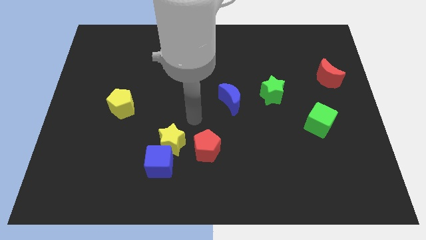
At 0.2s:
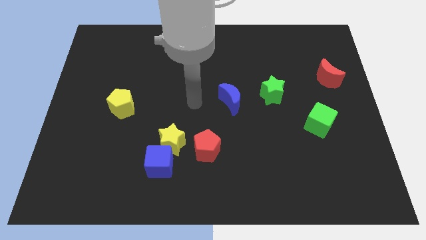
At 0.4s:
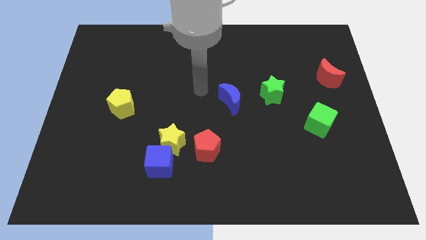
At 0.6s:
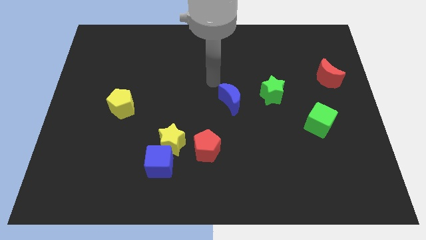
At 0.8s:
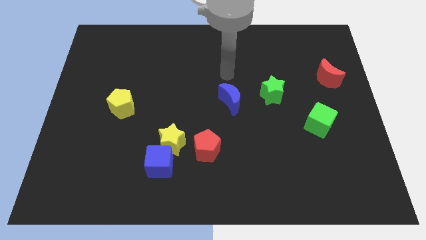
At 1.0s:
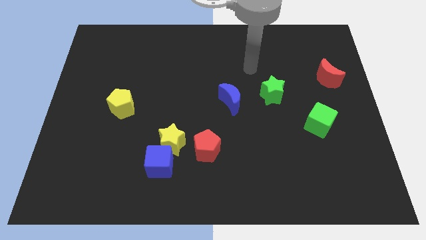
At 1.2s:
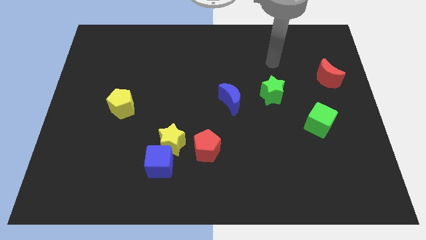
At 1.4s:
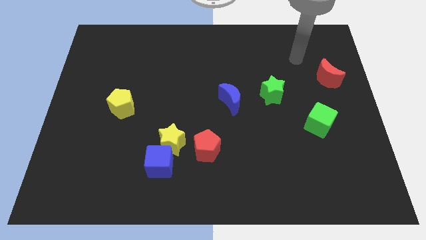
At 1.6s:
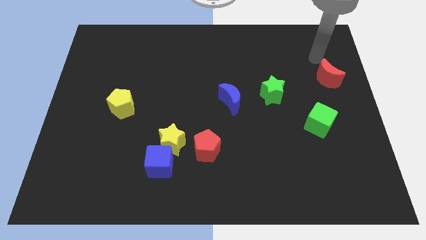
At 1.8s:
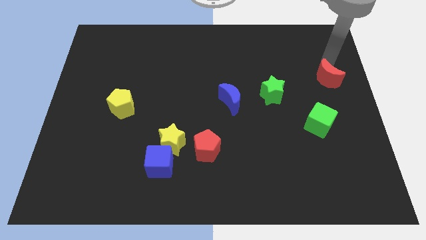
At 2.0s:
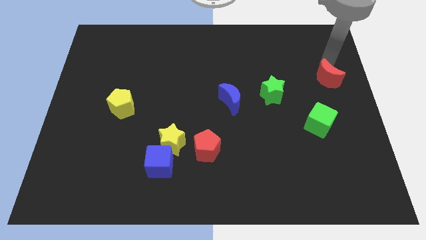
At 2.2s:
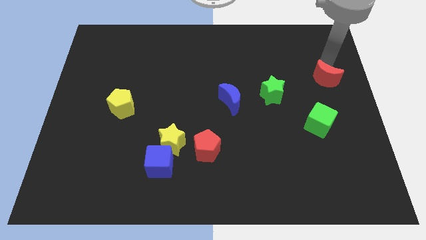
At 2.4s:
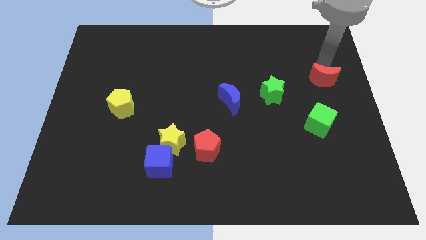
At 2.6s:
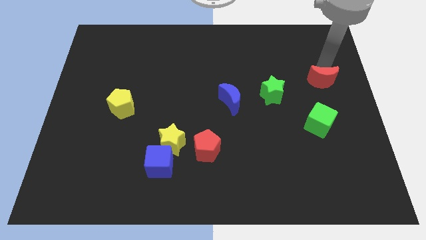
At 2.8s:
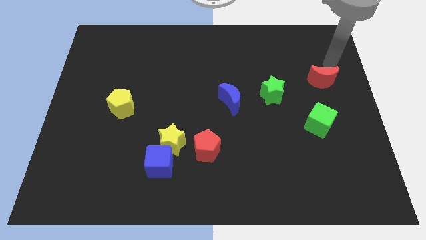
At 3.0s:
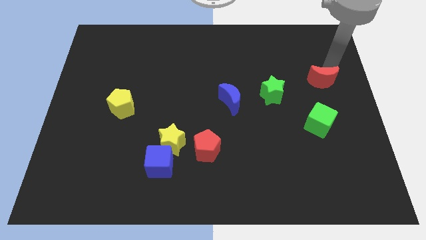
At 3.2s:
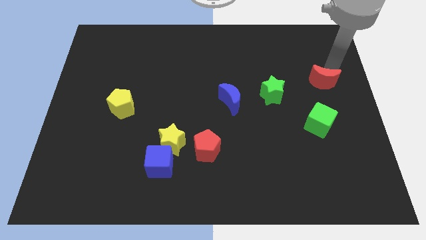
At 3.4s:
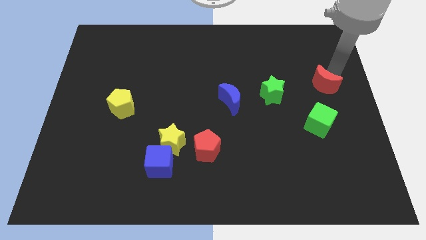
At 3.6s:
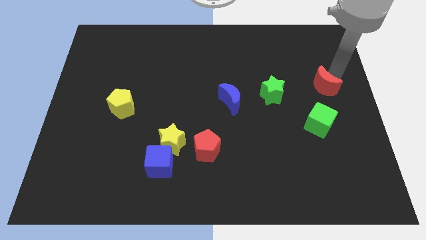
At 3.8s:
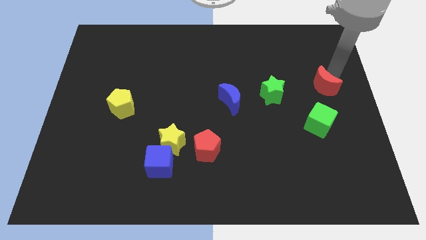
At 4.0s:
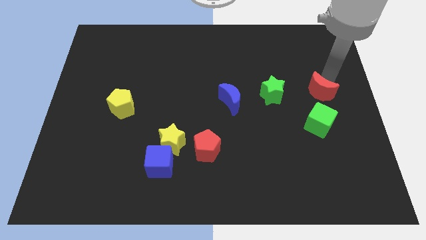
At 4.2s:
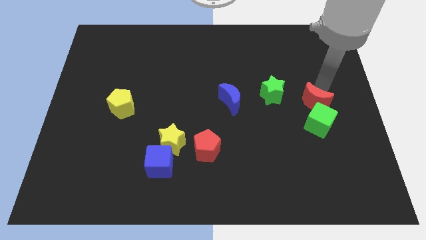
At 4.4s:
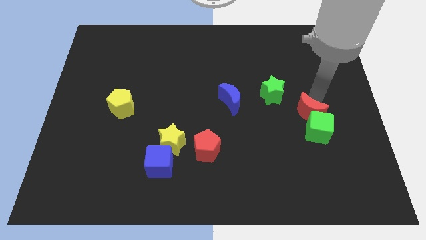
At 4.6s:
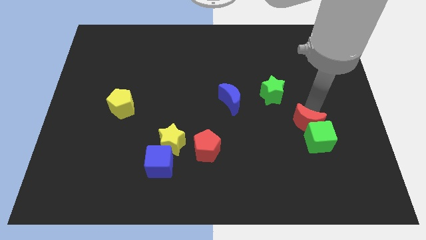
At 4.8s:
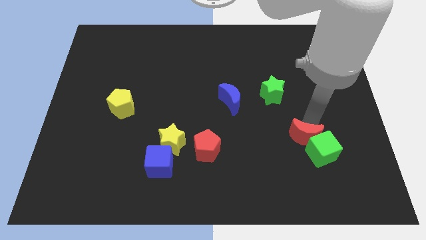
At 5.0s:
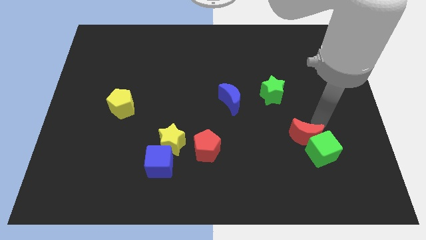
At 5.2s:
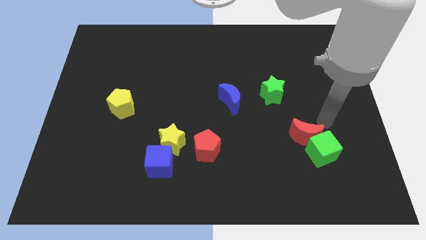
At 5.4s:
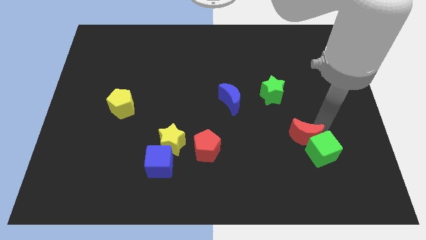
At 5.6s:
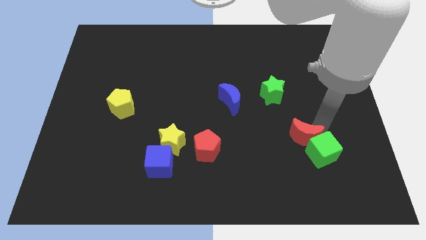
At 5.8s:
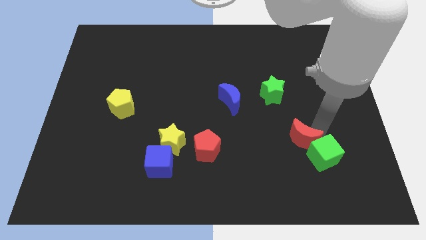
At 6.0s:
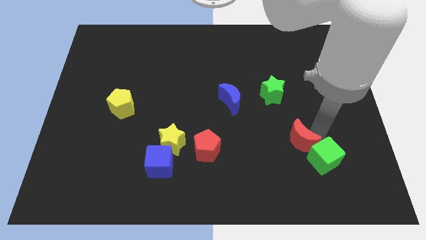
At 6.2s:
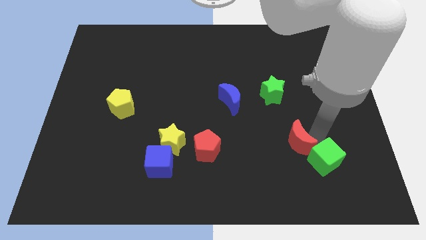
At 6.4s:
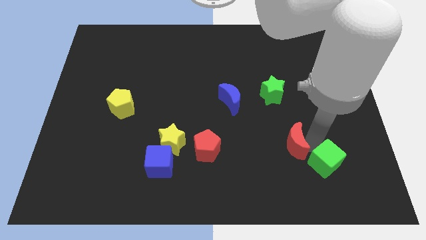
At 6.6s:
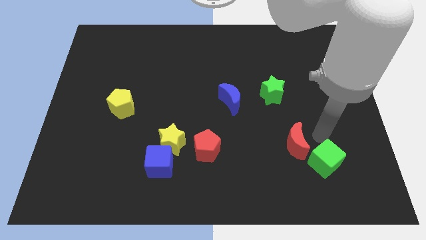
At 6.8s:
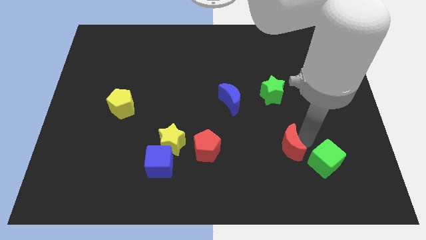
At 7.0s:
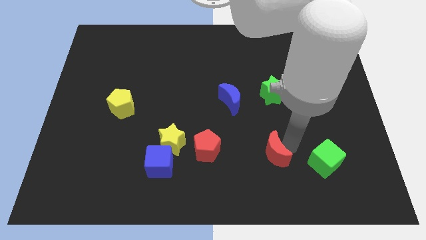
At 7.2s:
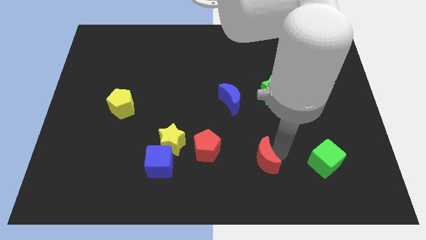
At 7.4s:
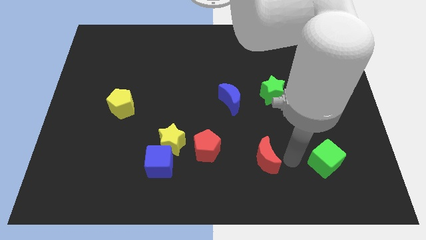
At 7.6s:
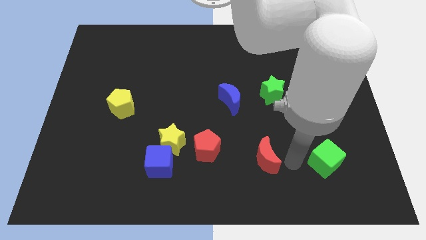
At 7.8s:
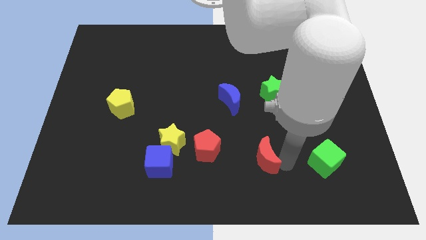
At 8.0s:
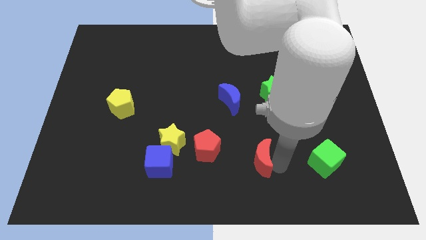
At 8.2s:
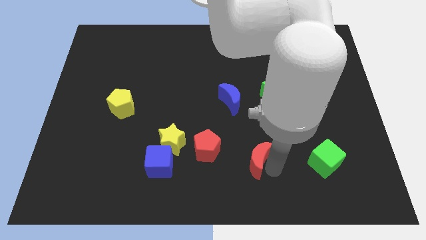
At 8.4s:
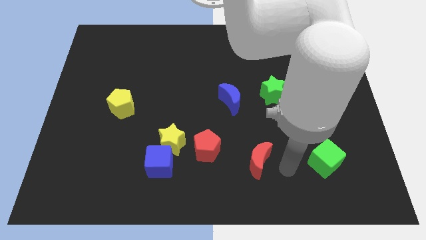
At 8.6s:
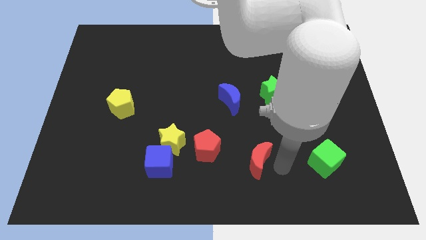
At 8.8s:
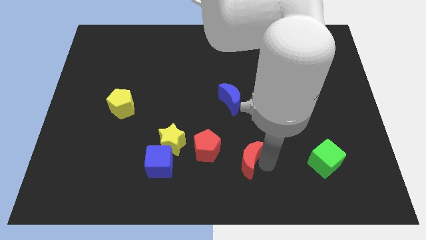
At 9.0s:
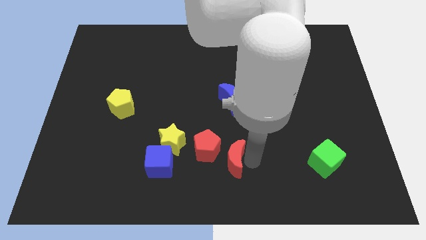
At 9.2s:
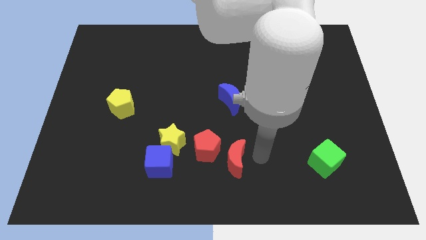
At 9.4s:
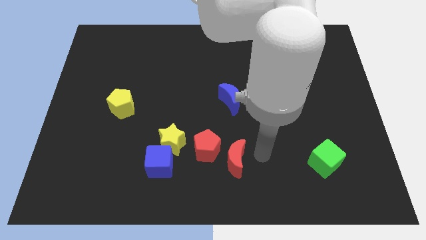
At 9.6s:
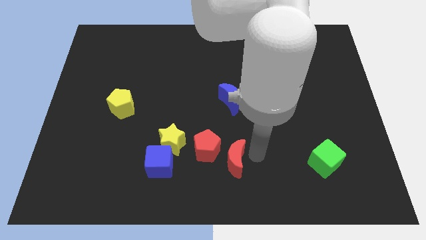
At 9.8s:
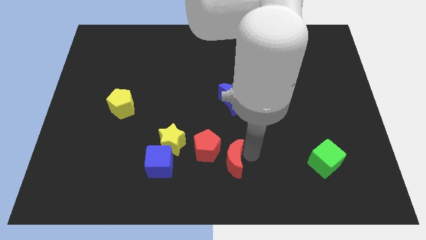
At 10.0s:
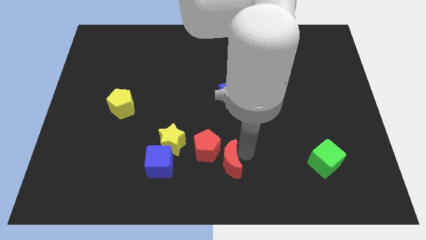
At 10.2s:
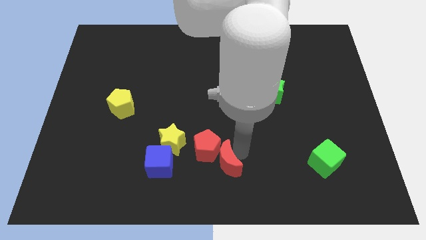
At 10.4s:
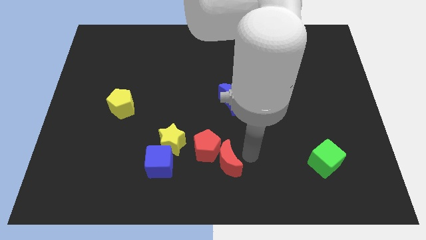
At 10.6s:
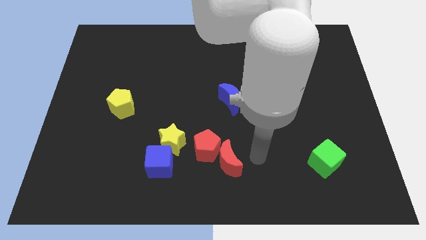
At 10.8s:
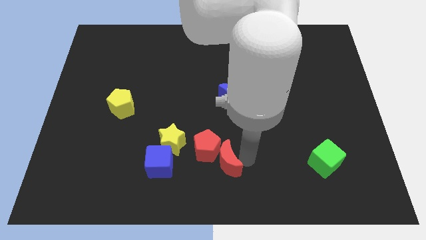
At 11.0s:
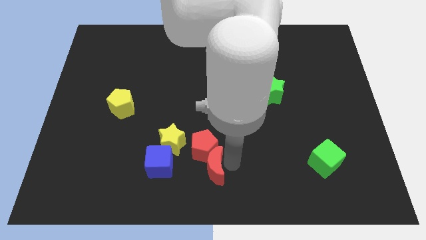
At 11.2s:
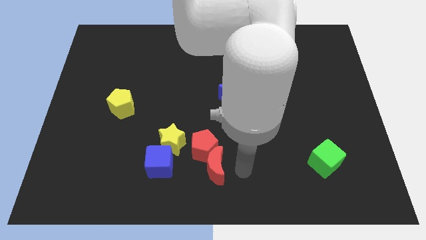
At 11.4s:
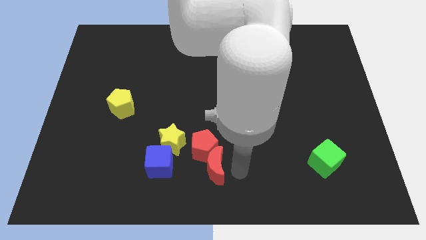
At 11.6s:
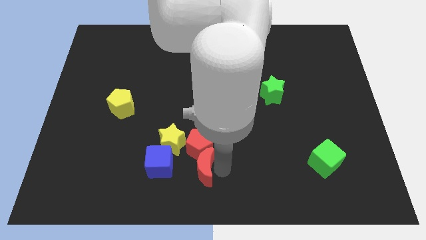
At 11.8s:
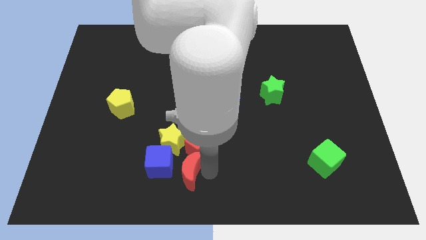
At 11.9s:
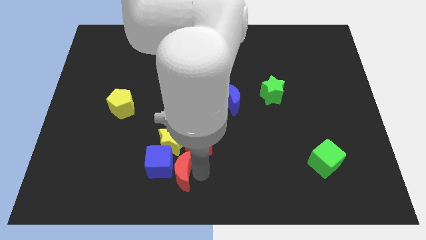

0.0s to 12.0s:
push the red moon close to the blue cube

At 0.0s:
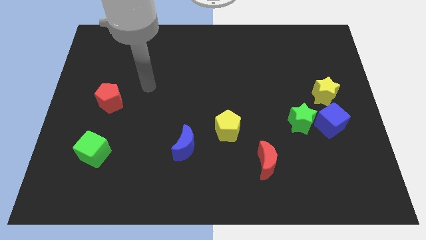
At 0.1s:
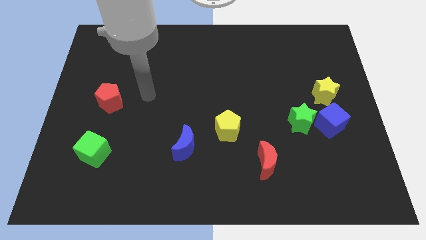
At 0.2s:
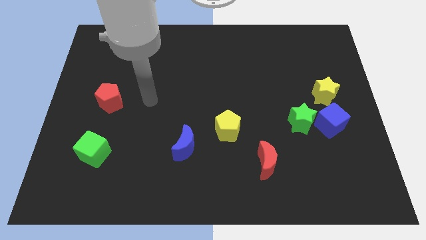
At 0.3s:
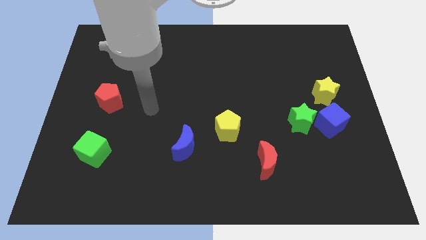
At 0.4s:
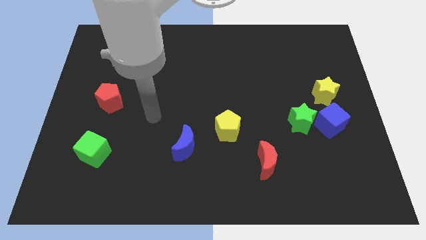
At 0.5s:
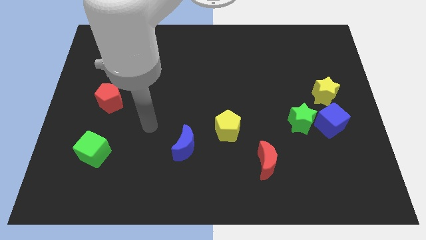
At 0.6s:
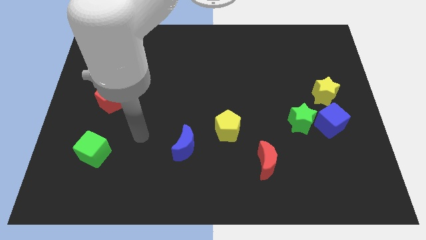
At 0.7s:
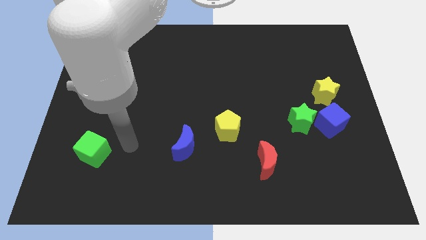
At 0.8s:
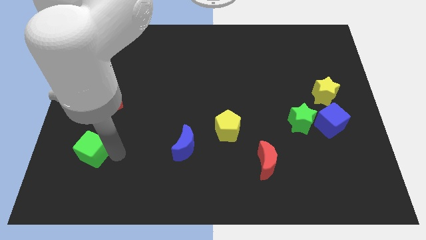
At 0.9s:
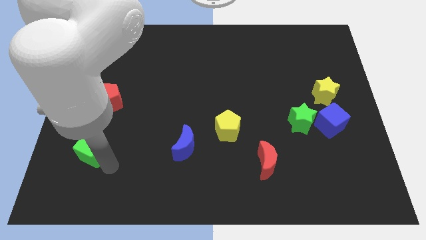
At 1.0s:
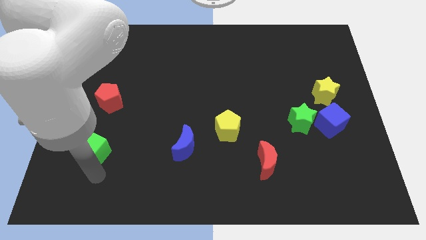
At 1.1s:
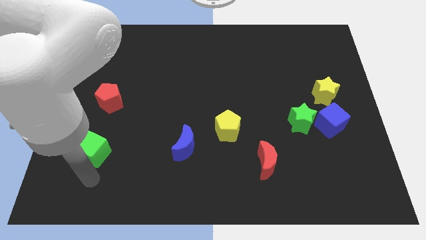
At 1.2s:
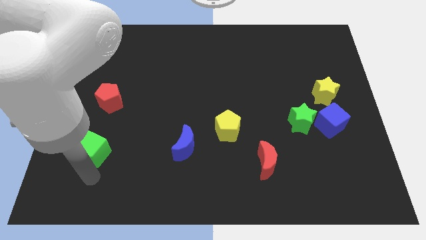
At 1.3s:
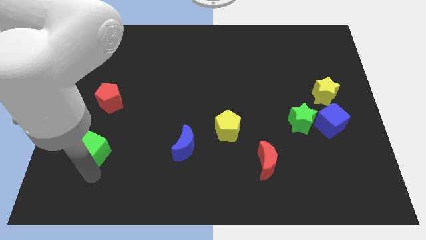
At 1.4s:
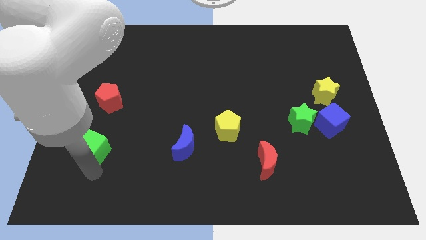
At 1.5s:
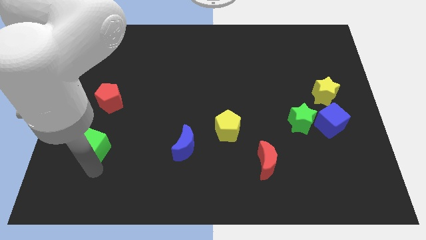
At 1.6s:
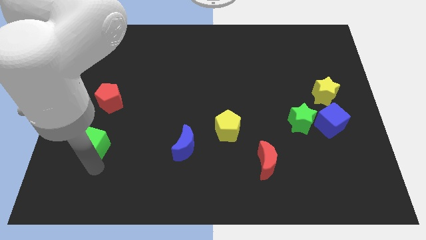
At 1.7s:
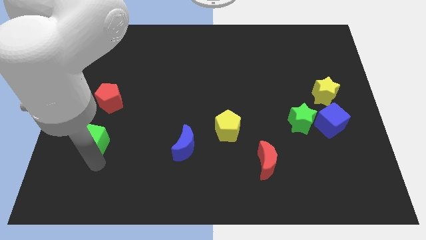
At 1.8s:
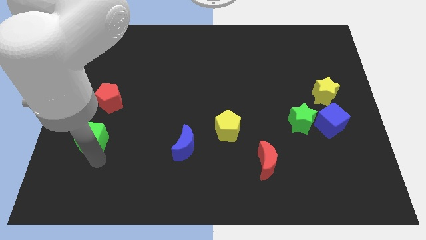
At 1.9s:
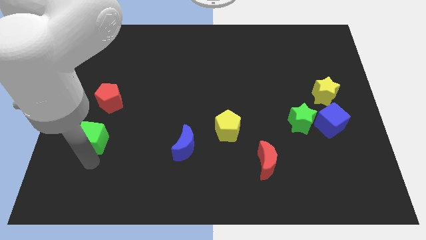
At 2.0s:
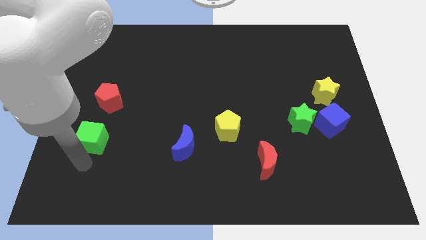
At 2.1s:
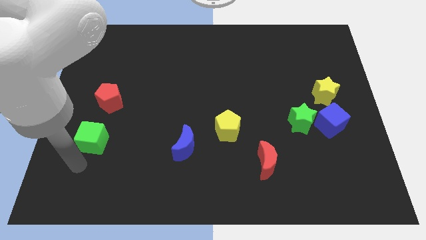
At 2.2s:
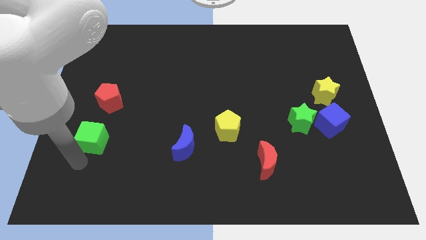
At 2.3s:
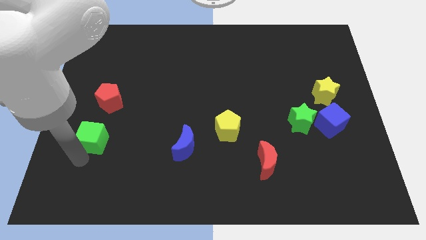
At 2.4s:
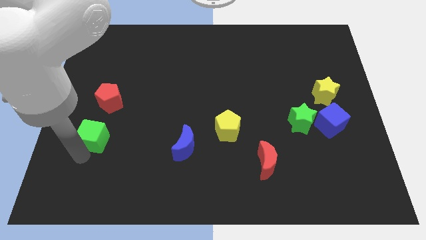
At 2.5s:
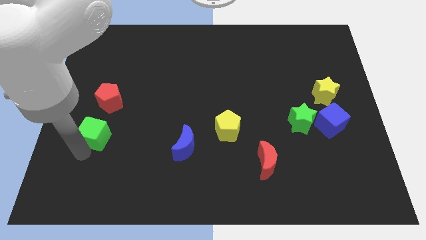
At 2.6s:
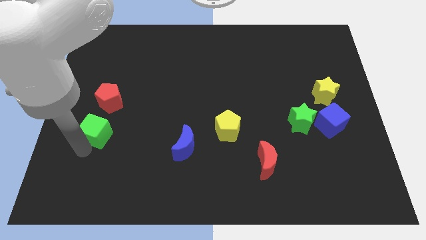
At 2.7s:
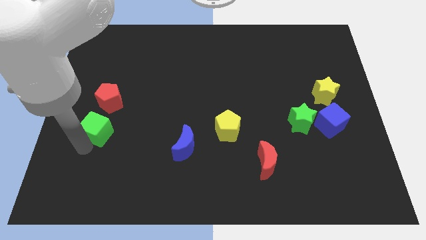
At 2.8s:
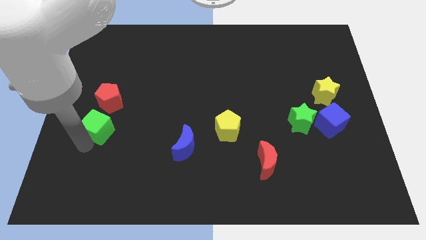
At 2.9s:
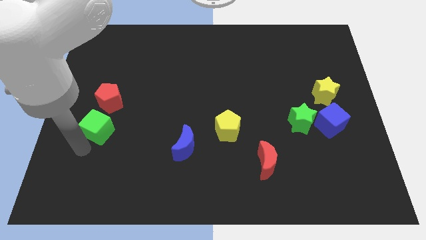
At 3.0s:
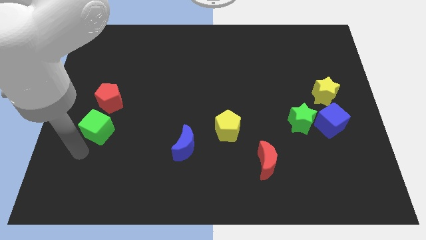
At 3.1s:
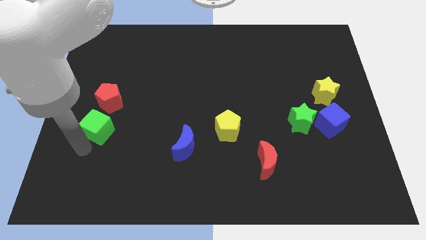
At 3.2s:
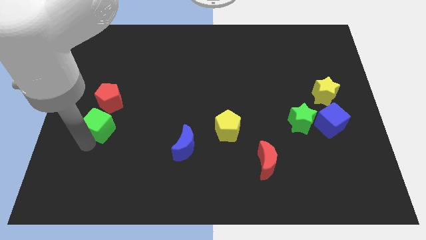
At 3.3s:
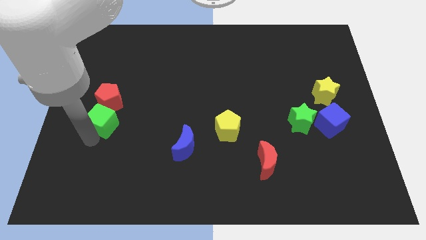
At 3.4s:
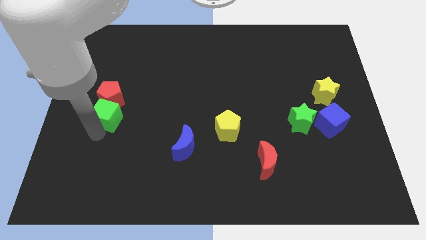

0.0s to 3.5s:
move the green cube close to the red pentagon
